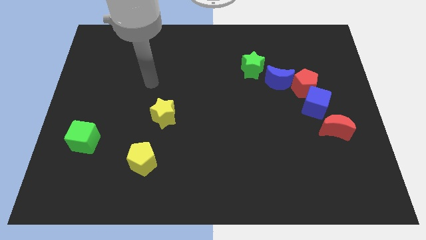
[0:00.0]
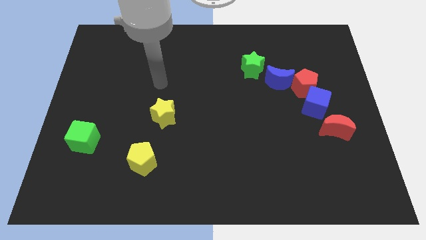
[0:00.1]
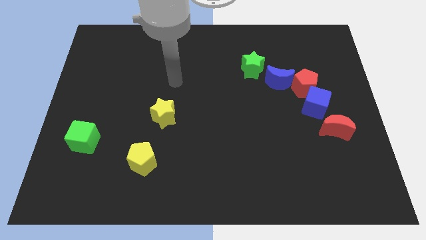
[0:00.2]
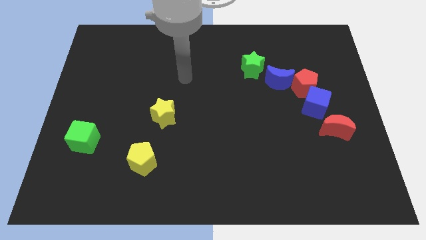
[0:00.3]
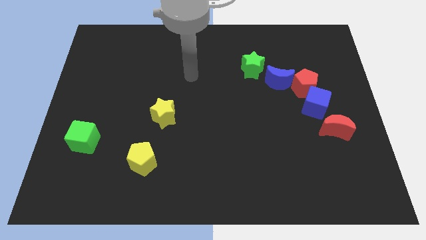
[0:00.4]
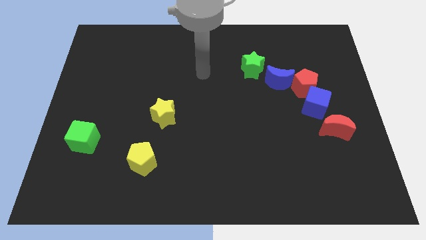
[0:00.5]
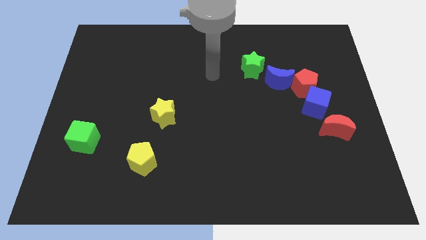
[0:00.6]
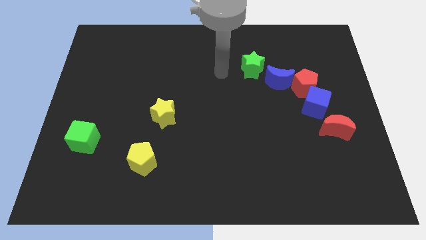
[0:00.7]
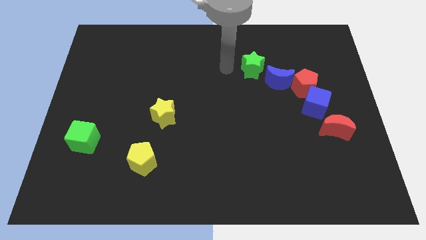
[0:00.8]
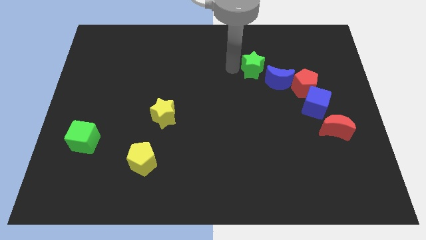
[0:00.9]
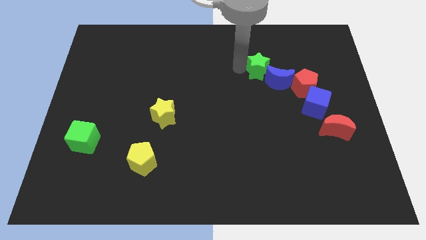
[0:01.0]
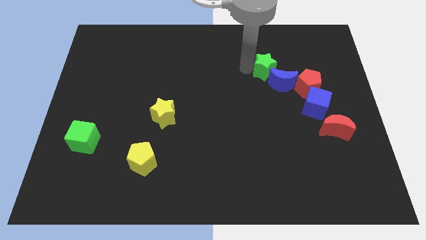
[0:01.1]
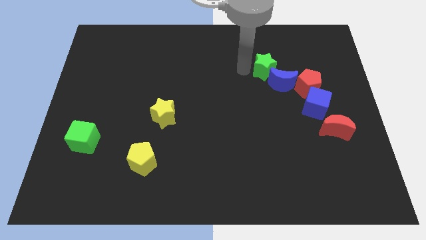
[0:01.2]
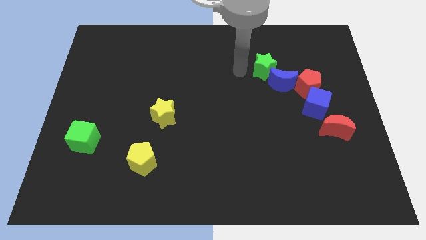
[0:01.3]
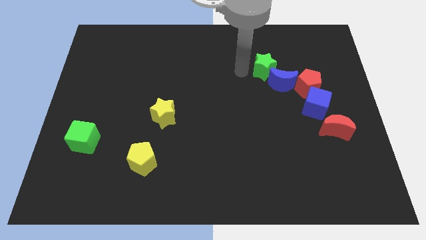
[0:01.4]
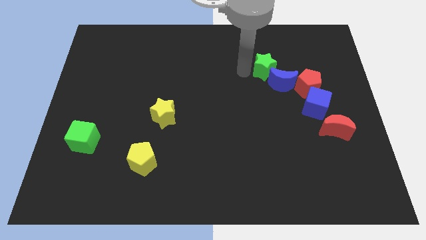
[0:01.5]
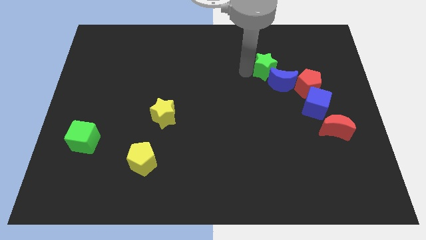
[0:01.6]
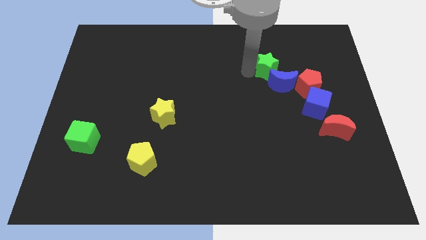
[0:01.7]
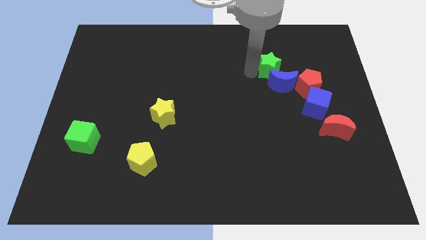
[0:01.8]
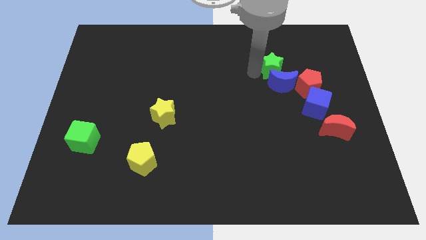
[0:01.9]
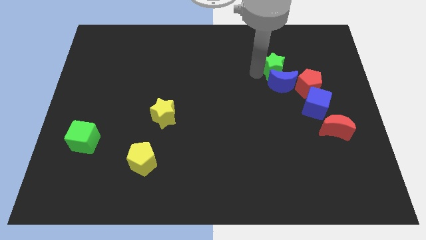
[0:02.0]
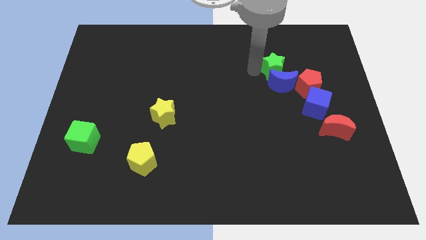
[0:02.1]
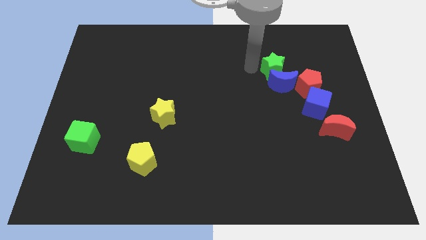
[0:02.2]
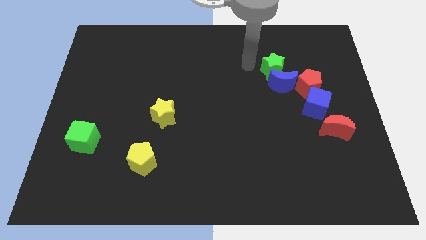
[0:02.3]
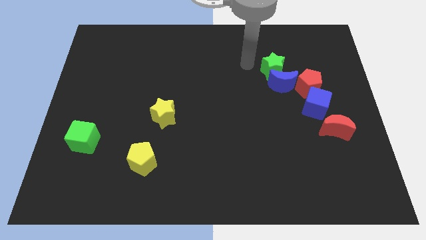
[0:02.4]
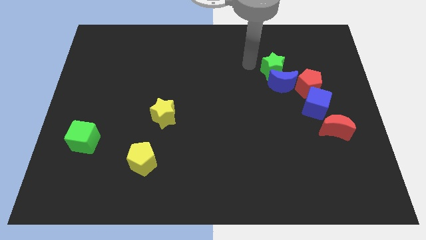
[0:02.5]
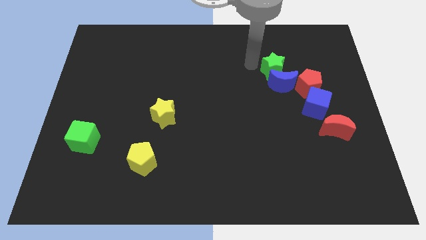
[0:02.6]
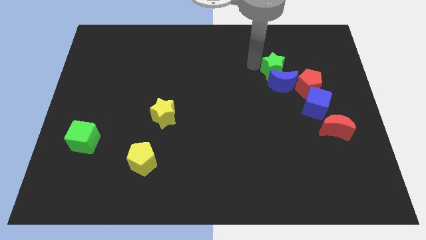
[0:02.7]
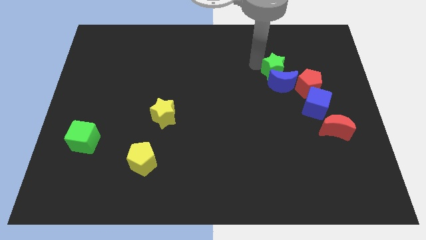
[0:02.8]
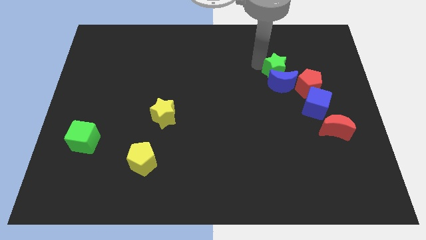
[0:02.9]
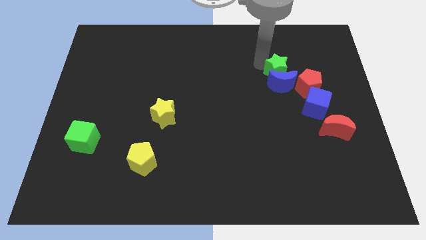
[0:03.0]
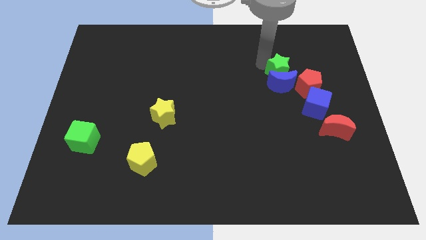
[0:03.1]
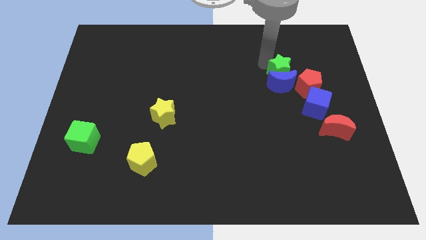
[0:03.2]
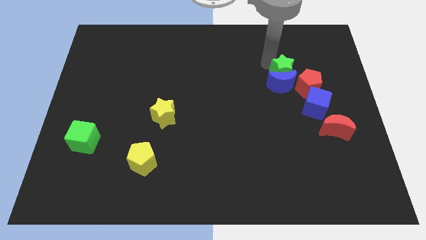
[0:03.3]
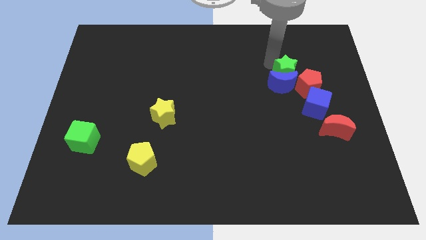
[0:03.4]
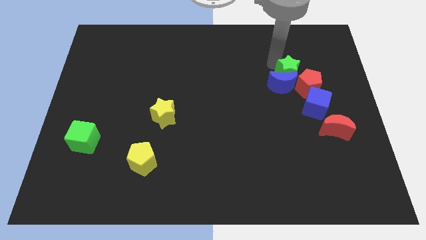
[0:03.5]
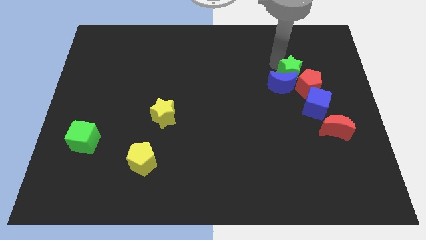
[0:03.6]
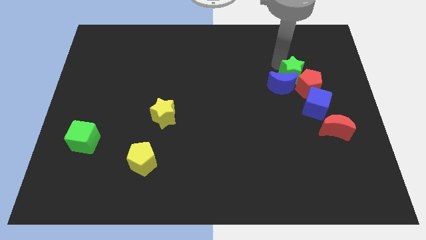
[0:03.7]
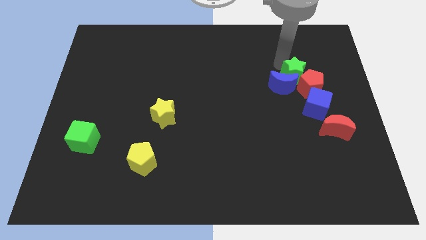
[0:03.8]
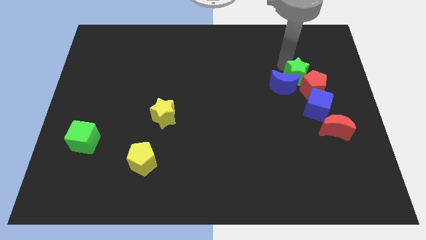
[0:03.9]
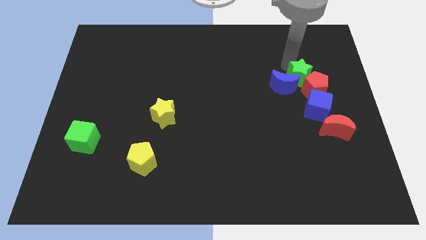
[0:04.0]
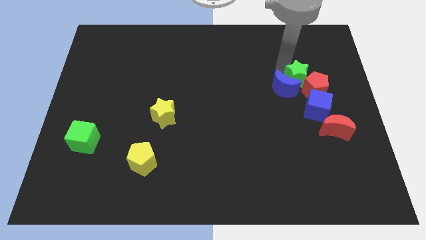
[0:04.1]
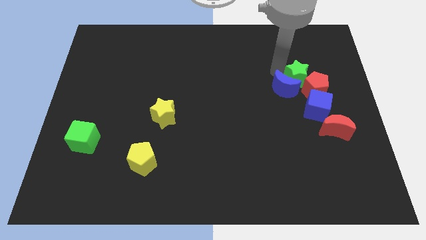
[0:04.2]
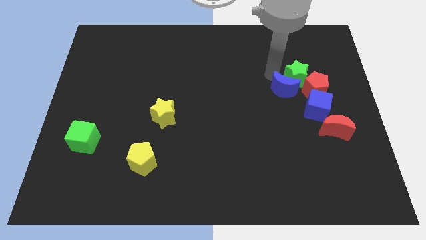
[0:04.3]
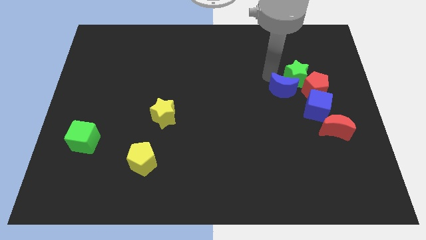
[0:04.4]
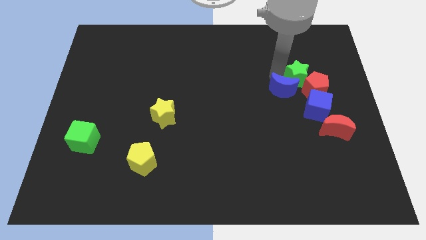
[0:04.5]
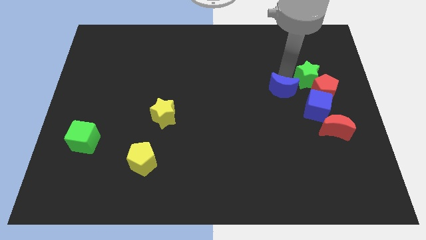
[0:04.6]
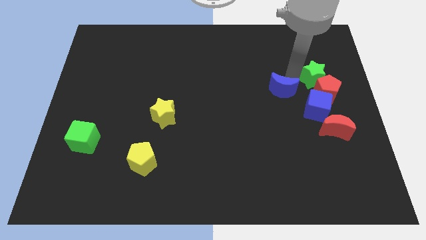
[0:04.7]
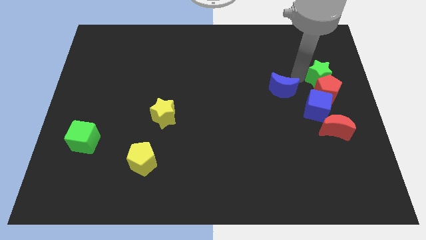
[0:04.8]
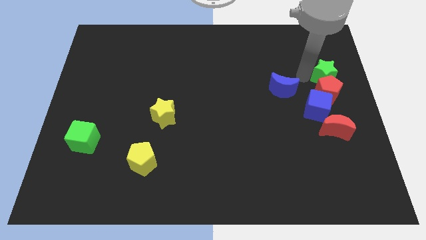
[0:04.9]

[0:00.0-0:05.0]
slide the green star to the center right

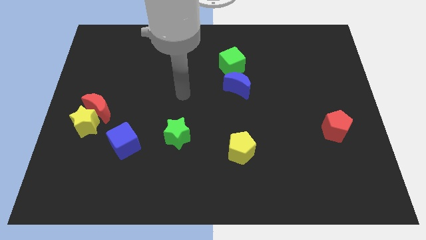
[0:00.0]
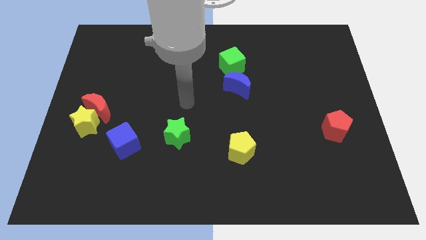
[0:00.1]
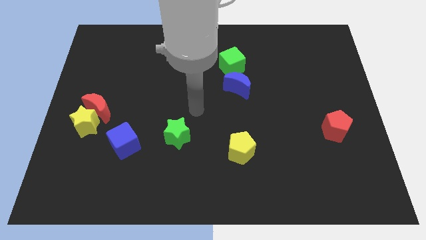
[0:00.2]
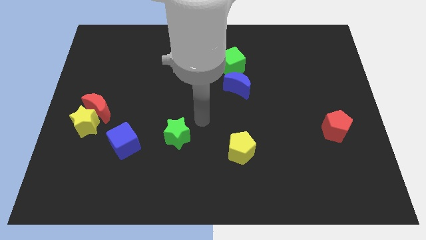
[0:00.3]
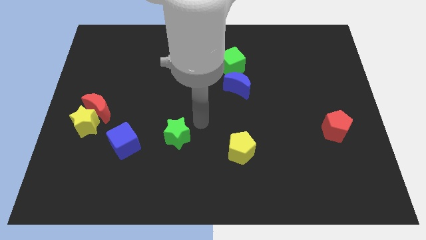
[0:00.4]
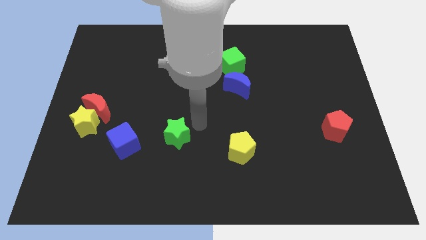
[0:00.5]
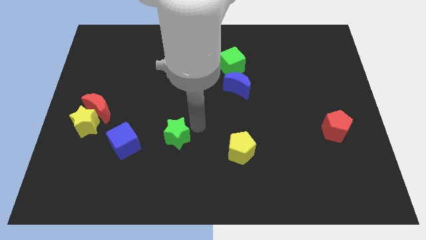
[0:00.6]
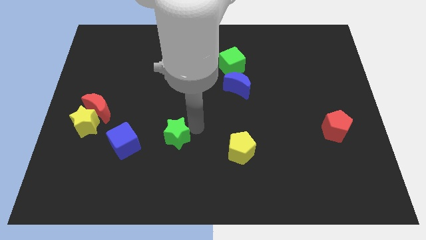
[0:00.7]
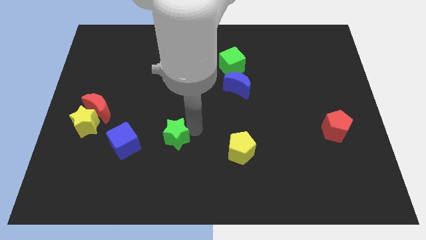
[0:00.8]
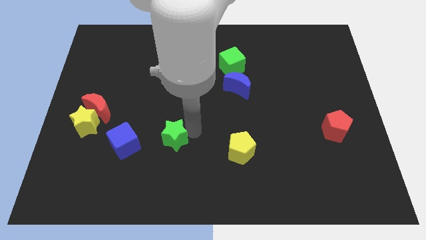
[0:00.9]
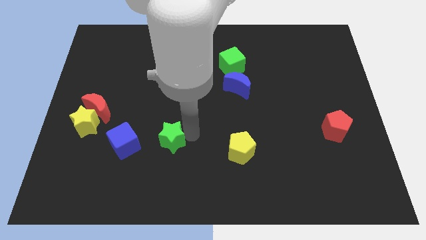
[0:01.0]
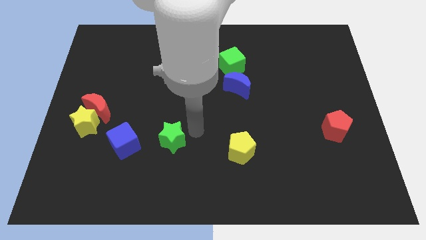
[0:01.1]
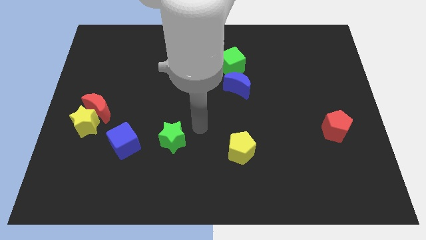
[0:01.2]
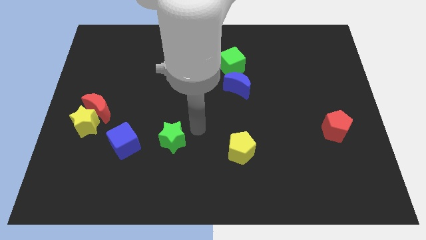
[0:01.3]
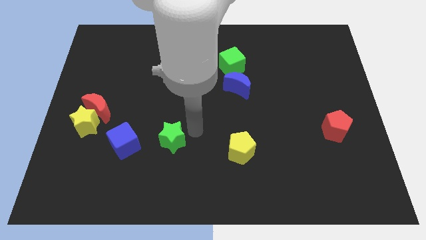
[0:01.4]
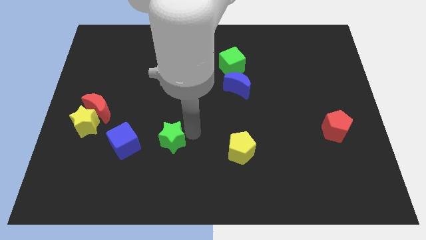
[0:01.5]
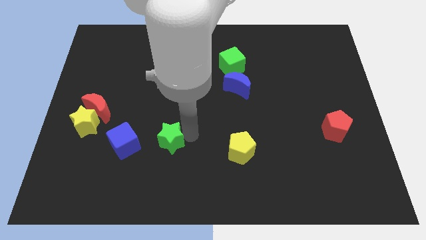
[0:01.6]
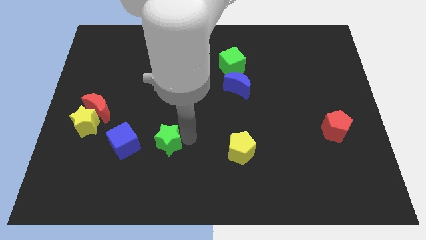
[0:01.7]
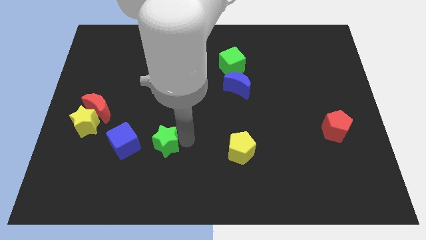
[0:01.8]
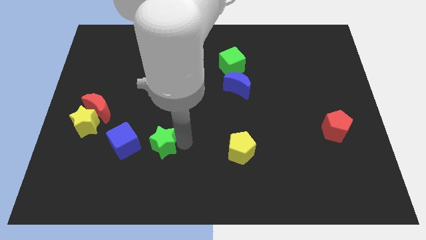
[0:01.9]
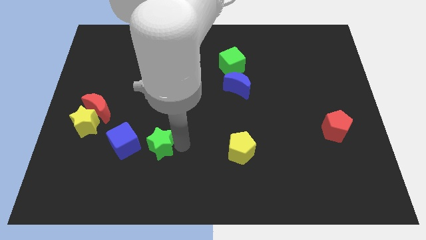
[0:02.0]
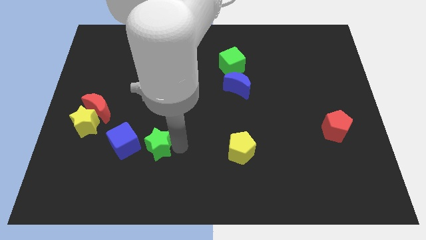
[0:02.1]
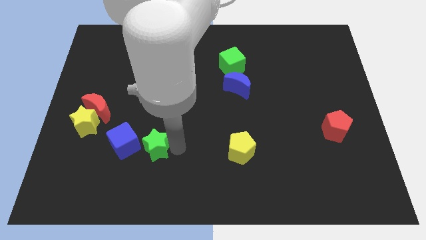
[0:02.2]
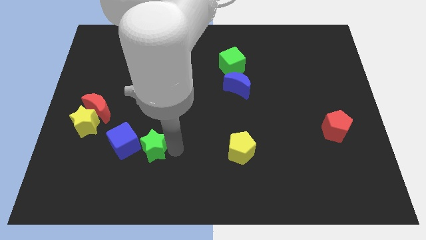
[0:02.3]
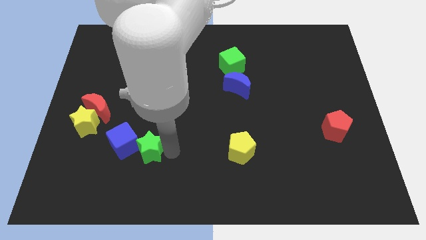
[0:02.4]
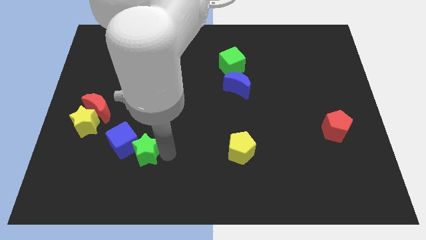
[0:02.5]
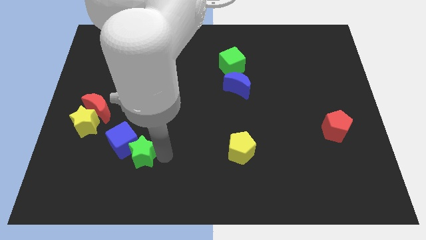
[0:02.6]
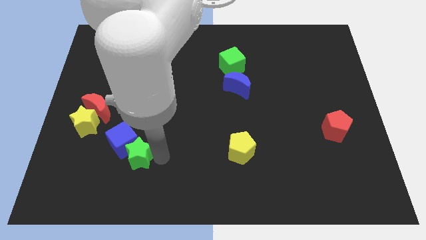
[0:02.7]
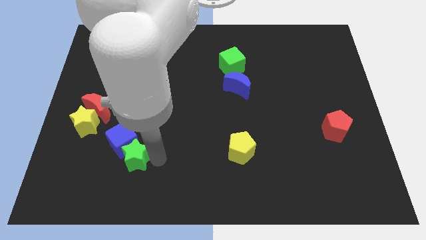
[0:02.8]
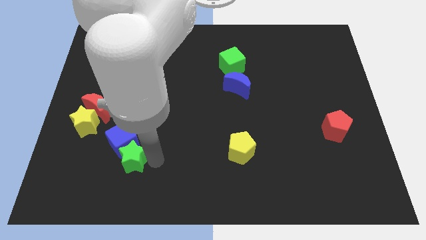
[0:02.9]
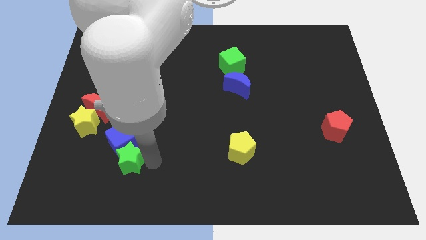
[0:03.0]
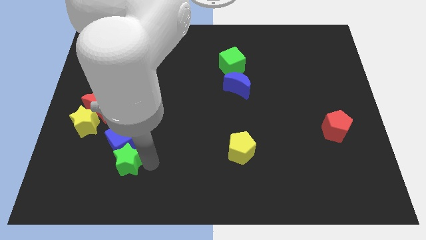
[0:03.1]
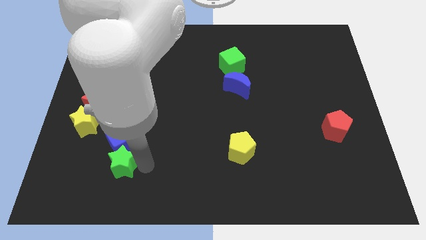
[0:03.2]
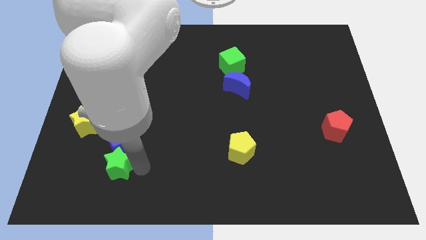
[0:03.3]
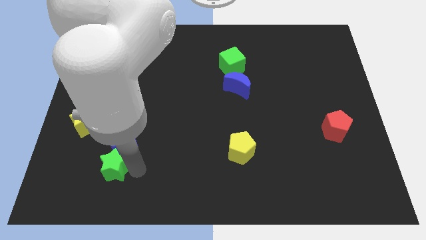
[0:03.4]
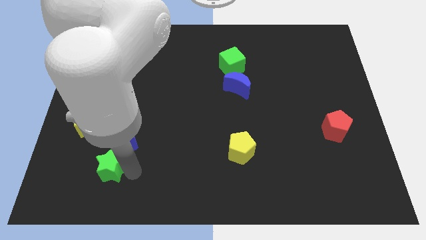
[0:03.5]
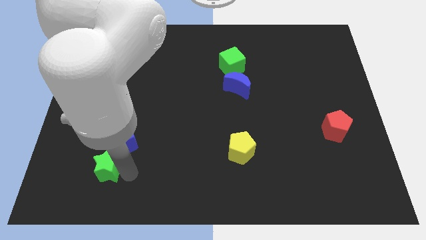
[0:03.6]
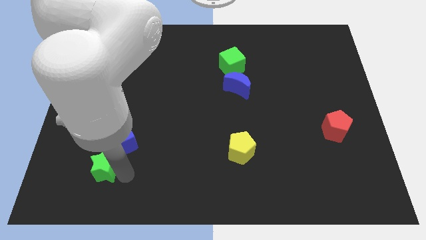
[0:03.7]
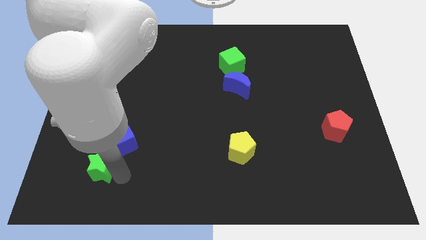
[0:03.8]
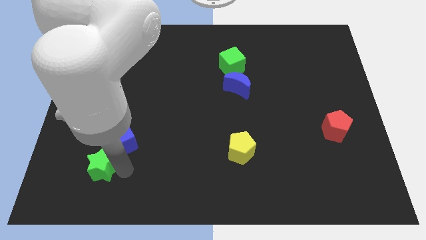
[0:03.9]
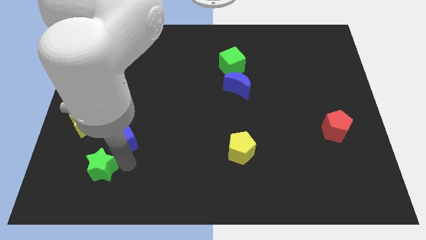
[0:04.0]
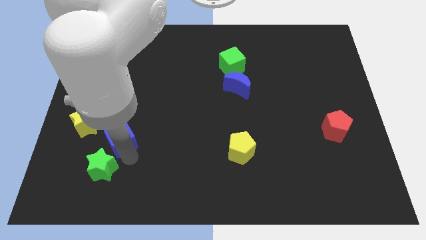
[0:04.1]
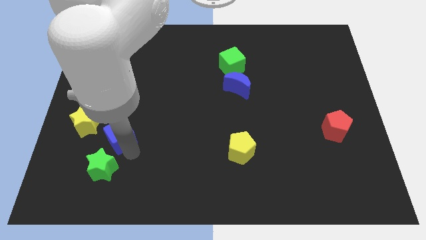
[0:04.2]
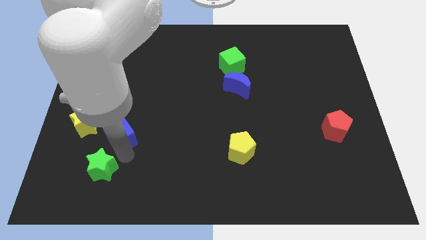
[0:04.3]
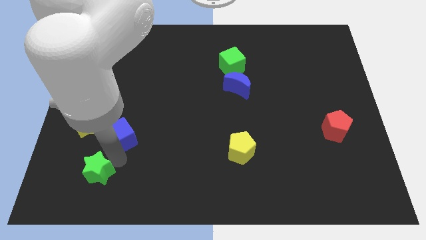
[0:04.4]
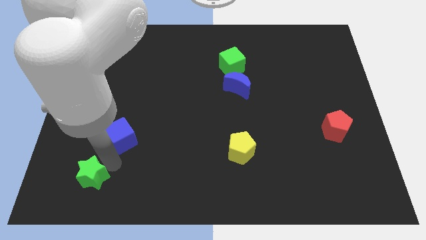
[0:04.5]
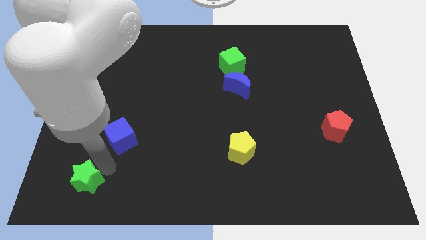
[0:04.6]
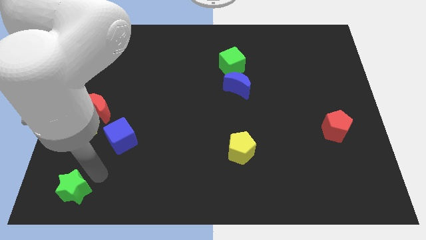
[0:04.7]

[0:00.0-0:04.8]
slide the green star to the bottom left corner
